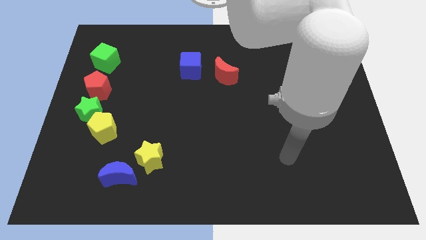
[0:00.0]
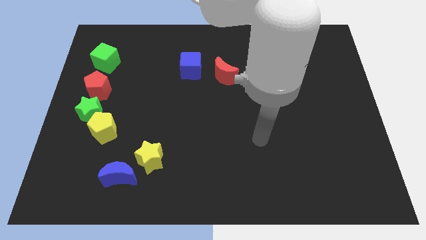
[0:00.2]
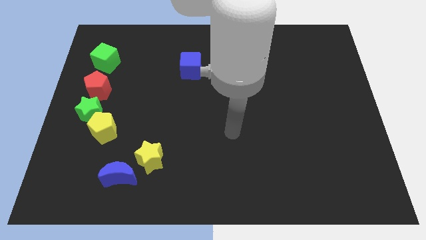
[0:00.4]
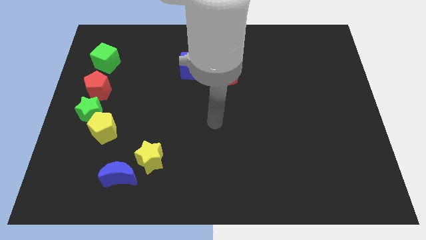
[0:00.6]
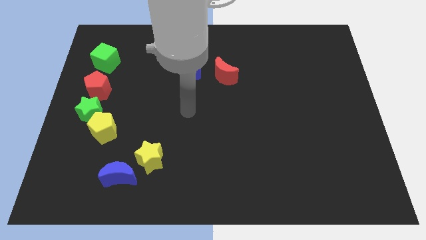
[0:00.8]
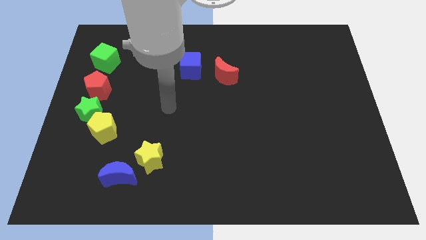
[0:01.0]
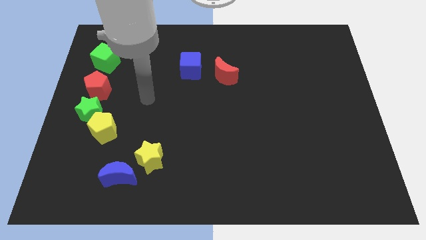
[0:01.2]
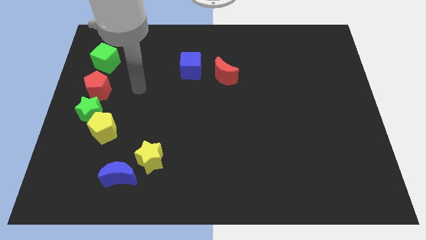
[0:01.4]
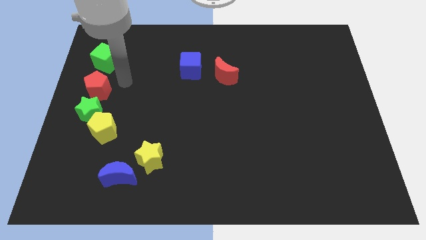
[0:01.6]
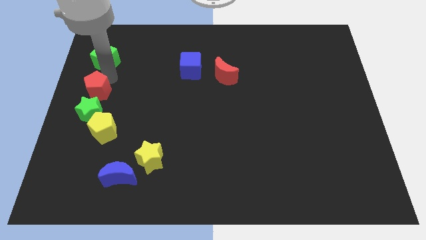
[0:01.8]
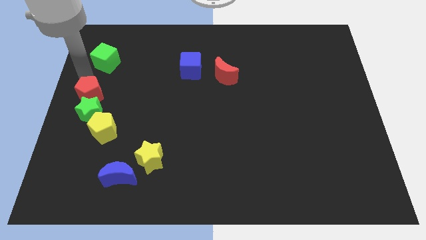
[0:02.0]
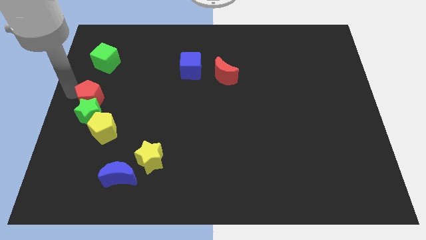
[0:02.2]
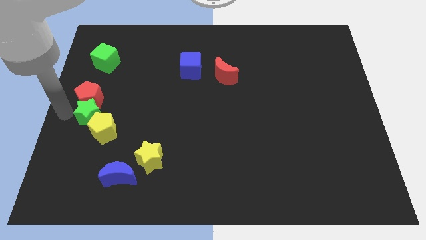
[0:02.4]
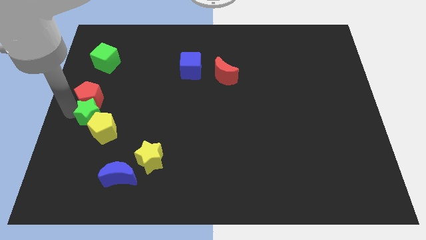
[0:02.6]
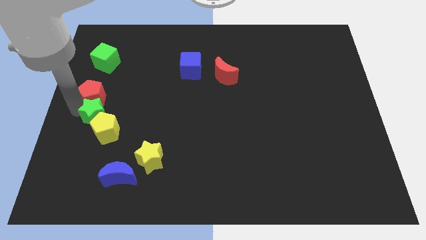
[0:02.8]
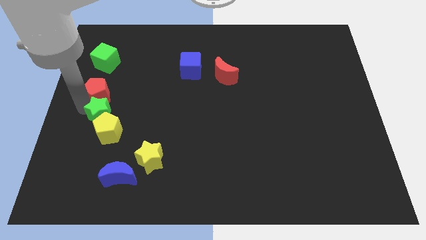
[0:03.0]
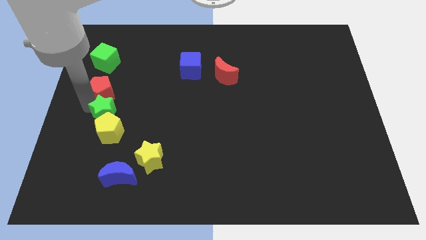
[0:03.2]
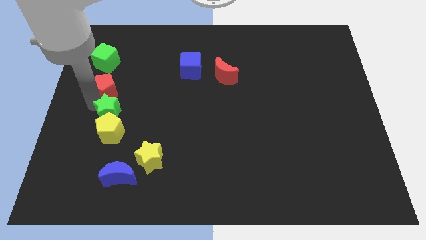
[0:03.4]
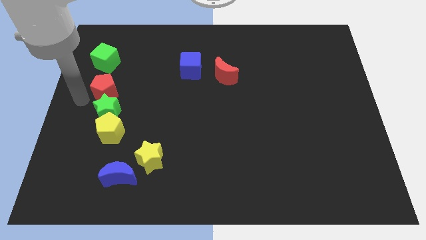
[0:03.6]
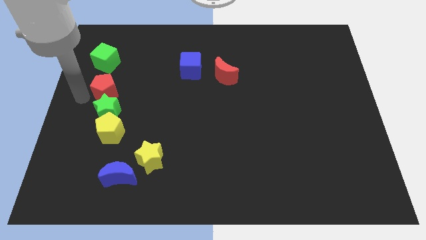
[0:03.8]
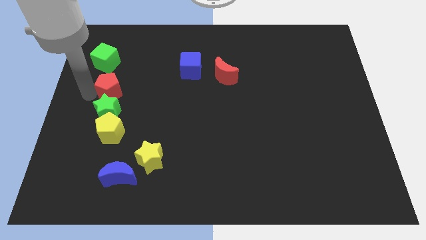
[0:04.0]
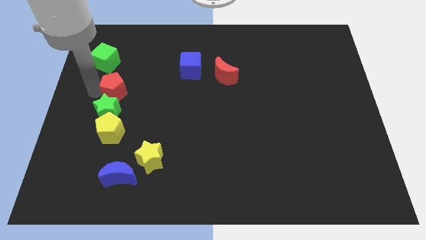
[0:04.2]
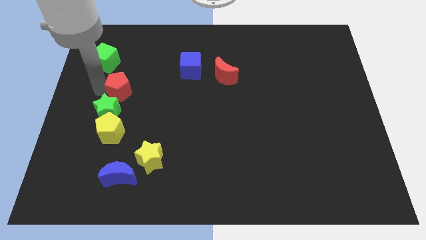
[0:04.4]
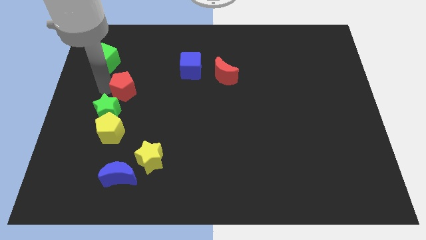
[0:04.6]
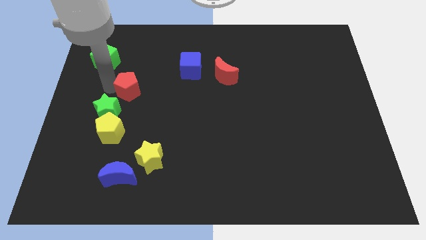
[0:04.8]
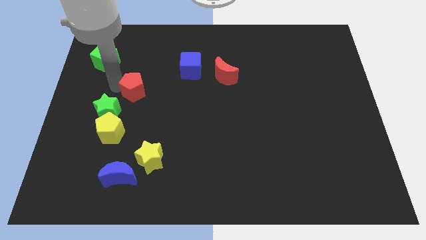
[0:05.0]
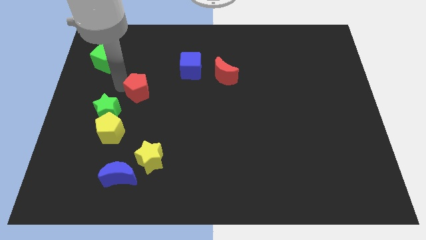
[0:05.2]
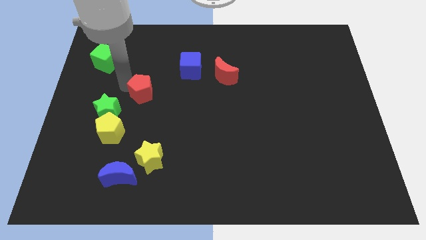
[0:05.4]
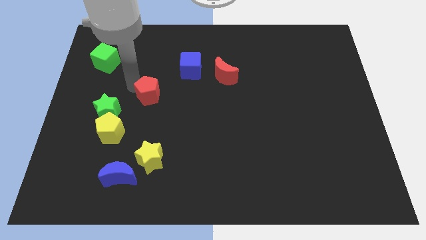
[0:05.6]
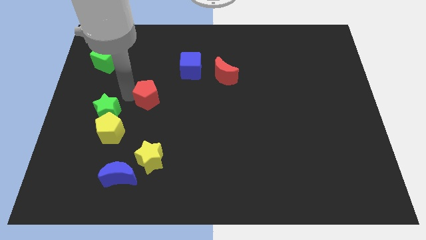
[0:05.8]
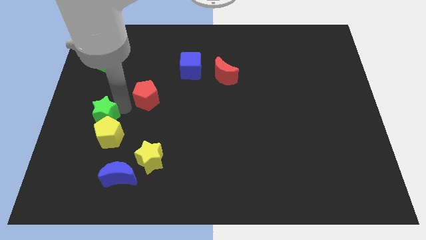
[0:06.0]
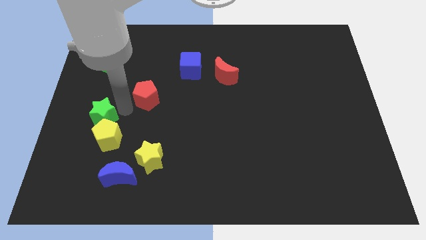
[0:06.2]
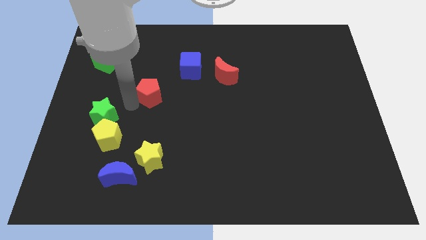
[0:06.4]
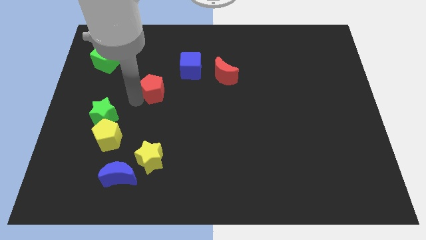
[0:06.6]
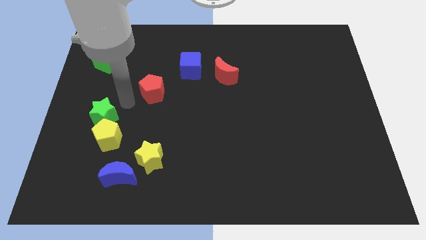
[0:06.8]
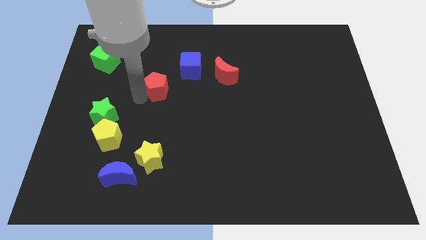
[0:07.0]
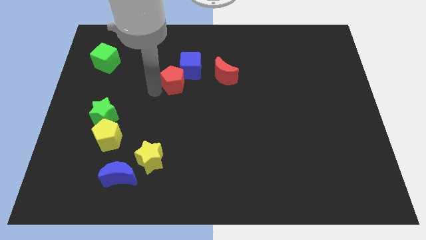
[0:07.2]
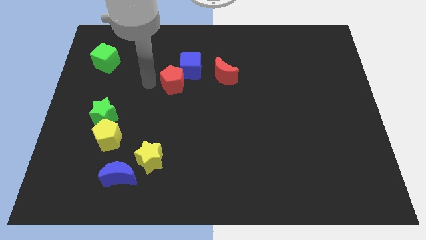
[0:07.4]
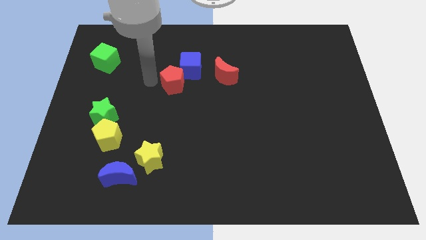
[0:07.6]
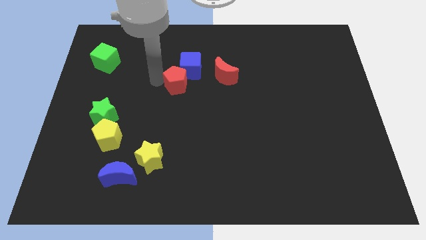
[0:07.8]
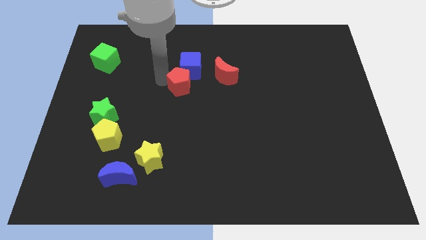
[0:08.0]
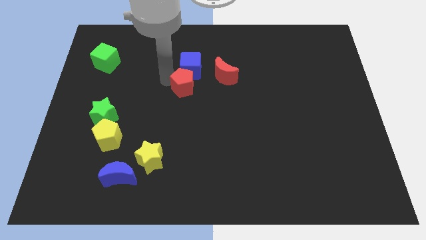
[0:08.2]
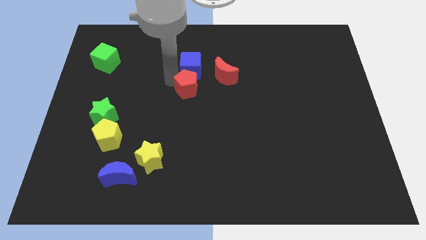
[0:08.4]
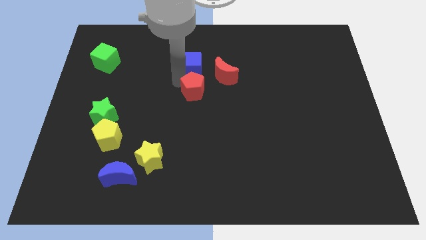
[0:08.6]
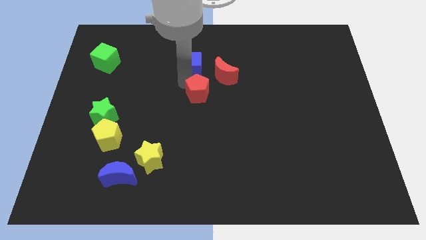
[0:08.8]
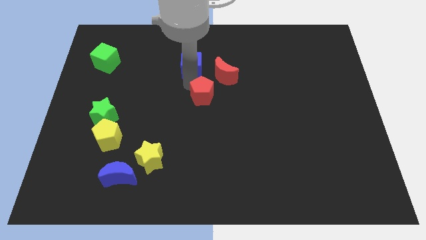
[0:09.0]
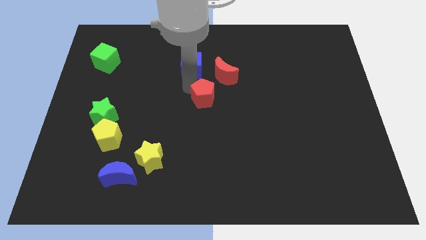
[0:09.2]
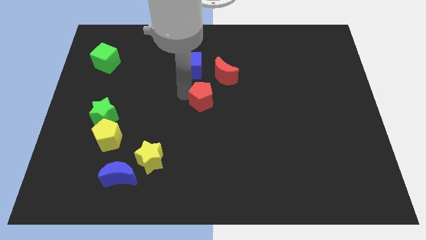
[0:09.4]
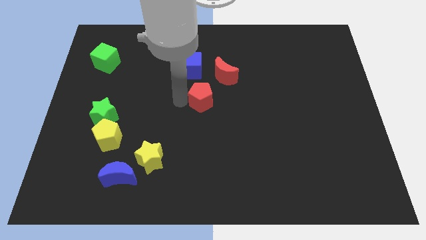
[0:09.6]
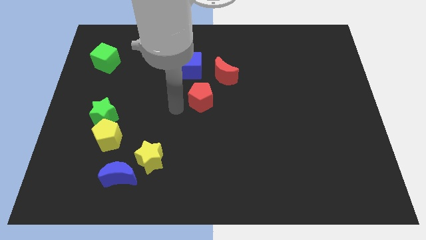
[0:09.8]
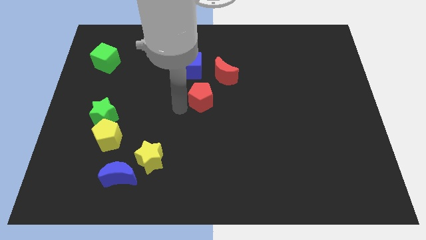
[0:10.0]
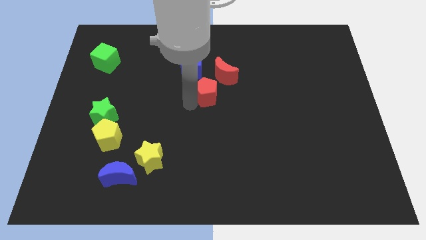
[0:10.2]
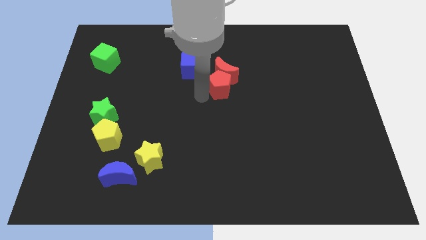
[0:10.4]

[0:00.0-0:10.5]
put the red pentagon to the bottom right side of the red moon

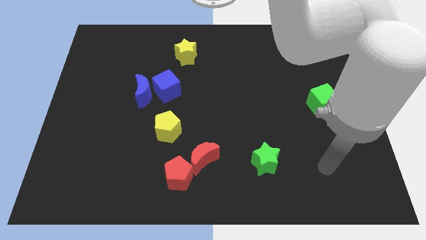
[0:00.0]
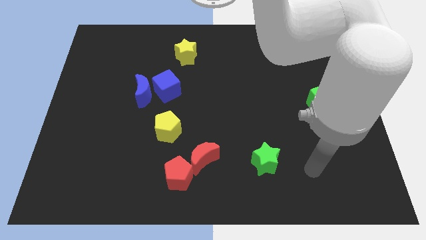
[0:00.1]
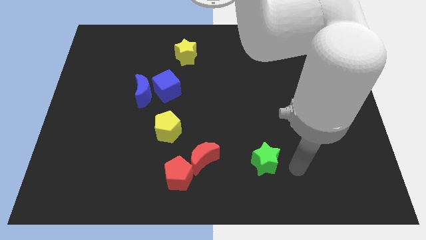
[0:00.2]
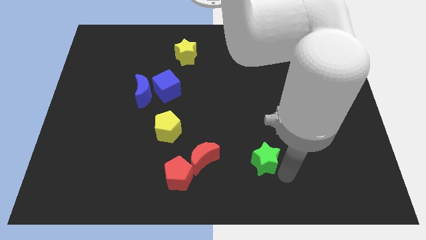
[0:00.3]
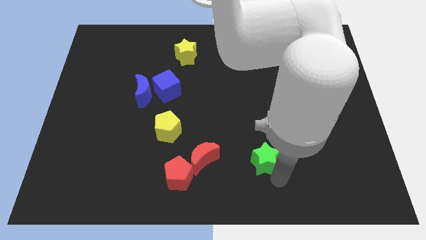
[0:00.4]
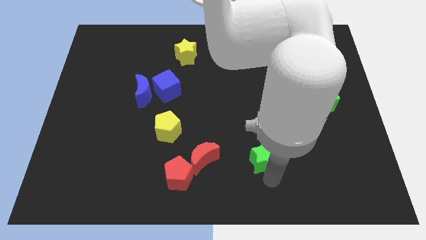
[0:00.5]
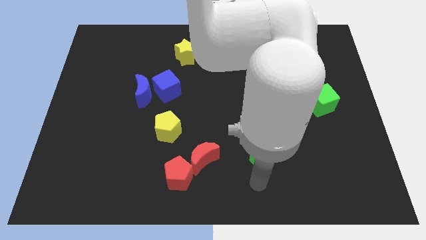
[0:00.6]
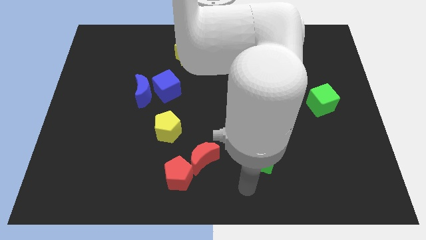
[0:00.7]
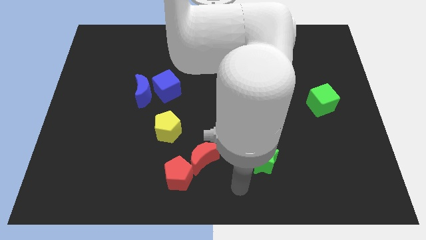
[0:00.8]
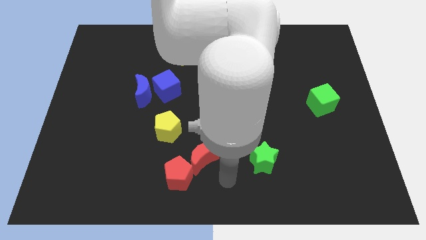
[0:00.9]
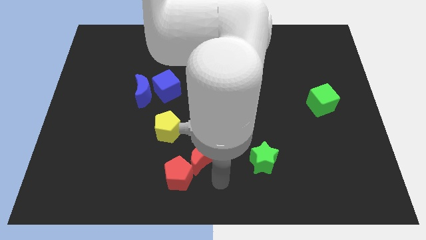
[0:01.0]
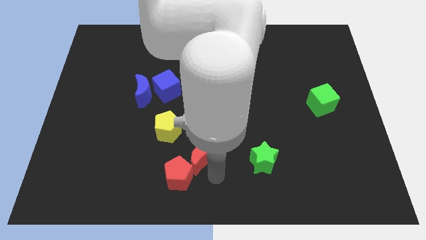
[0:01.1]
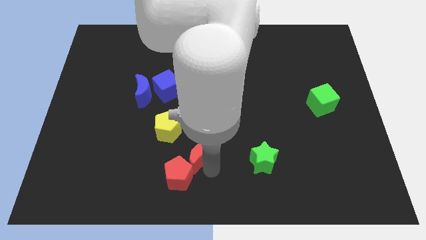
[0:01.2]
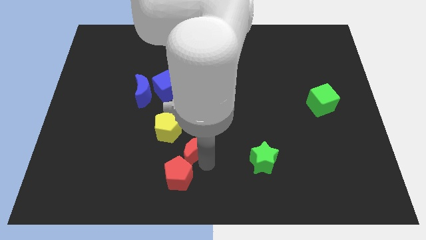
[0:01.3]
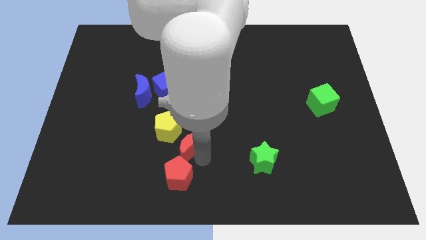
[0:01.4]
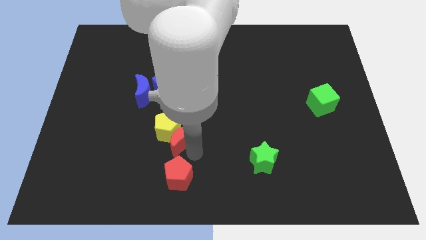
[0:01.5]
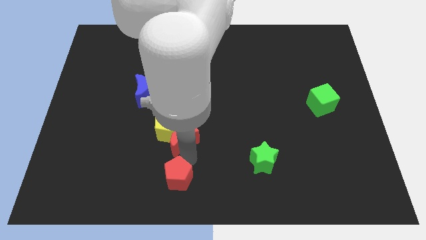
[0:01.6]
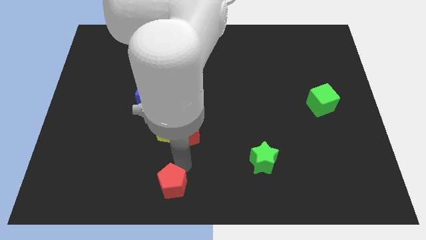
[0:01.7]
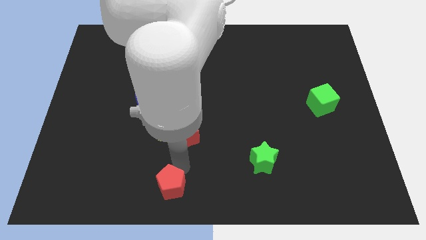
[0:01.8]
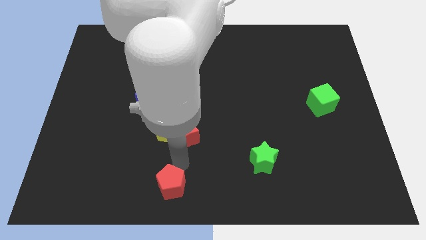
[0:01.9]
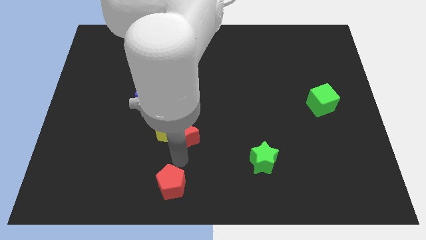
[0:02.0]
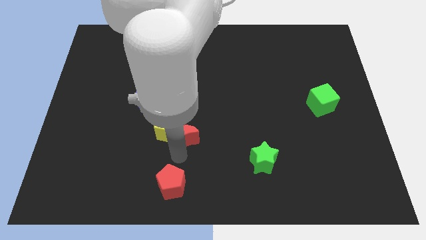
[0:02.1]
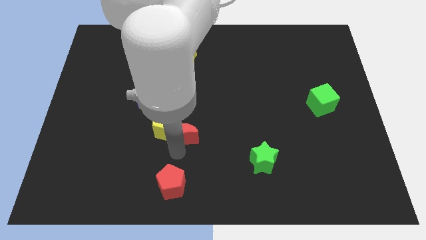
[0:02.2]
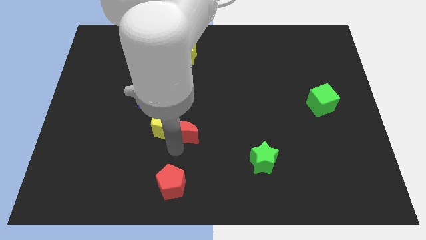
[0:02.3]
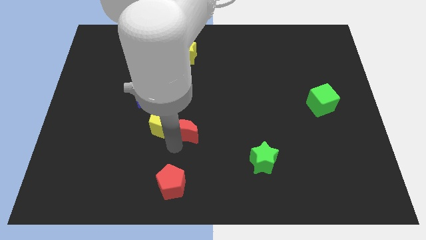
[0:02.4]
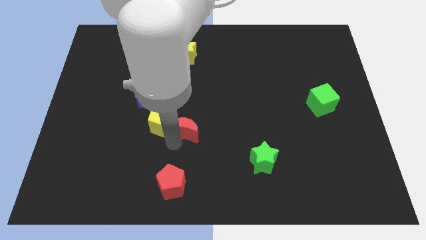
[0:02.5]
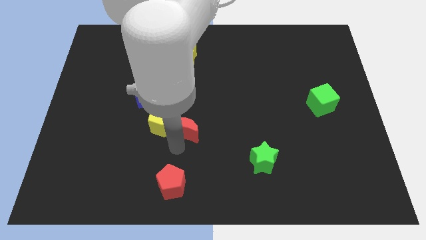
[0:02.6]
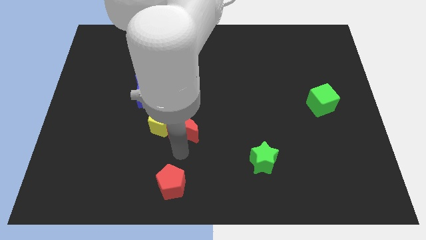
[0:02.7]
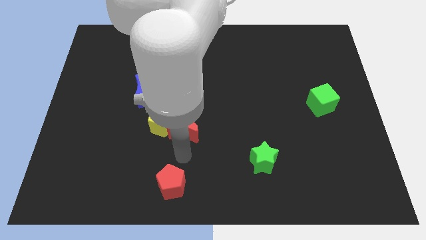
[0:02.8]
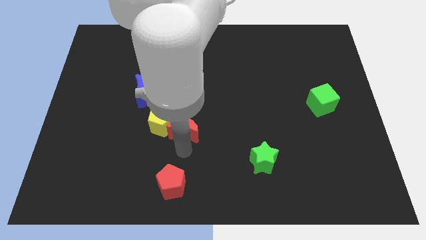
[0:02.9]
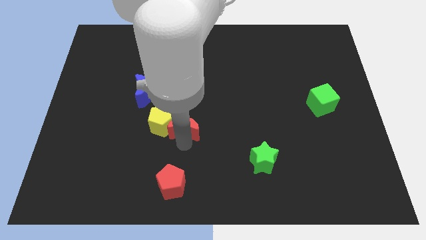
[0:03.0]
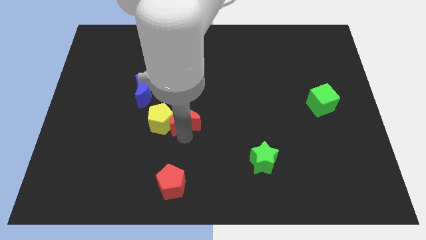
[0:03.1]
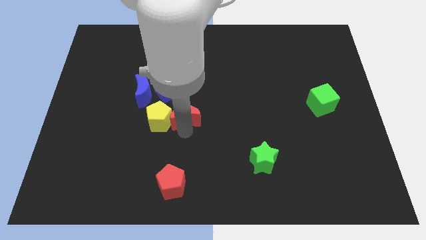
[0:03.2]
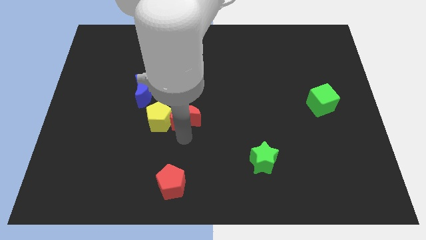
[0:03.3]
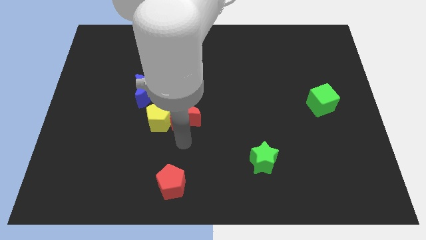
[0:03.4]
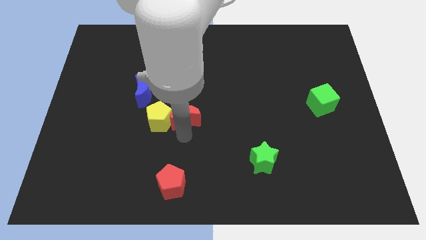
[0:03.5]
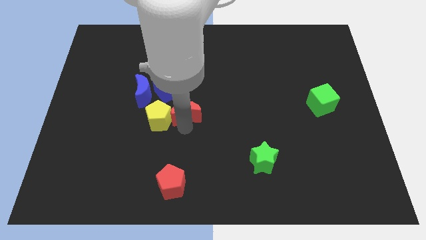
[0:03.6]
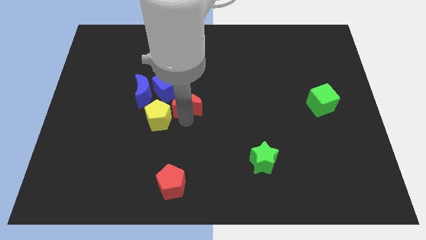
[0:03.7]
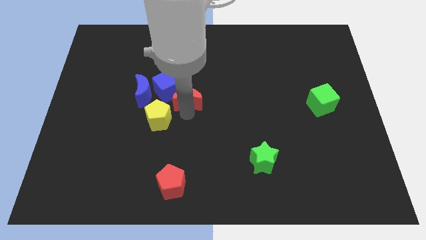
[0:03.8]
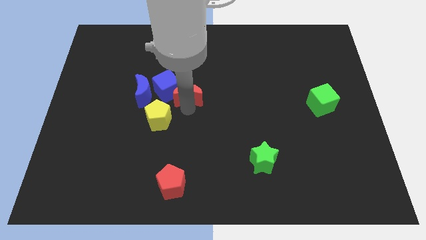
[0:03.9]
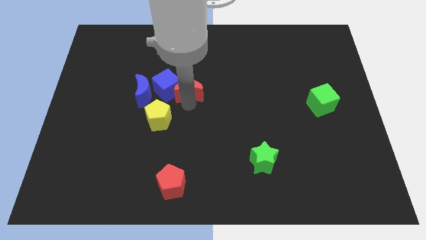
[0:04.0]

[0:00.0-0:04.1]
put the red moon diagonally up and to the right of the blue cube
